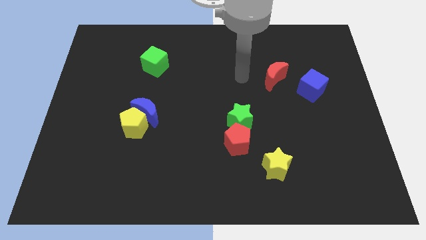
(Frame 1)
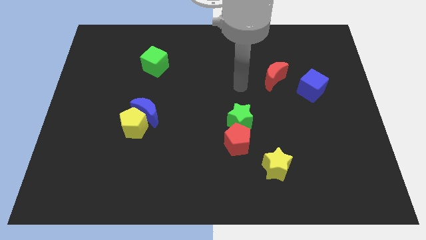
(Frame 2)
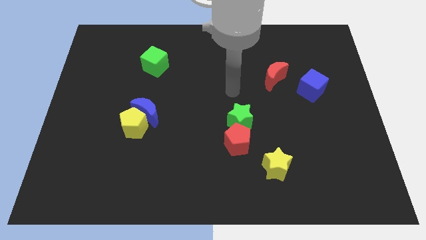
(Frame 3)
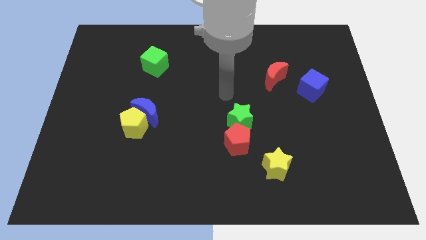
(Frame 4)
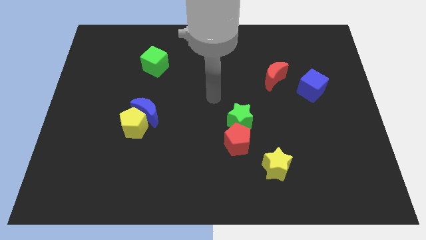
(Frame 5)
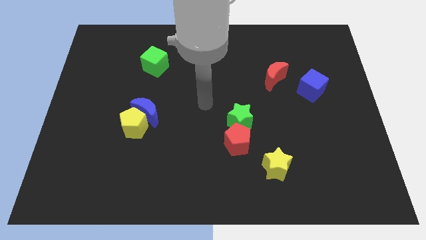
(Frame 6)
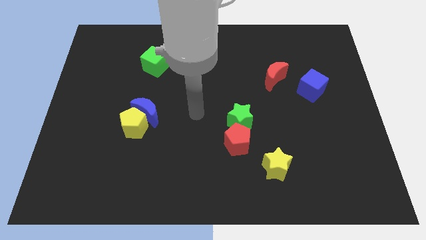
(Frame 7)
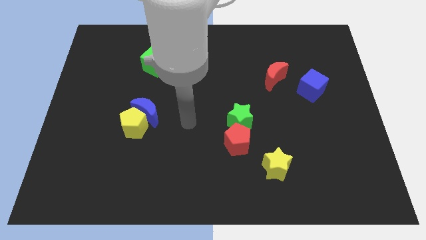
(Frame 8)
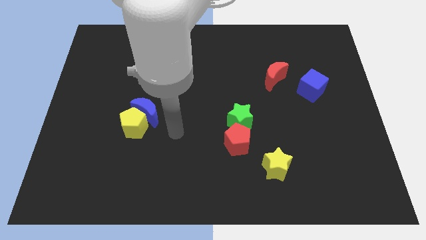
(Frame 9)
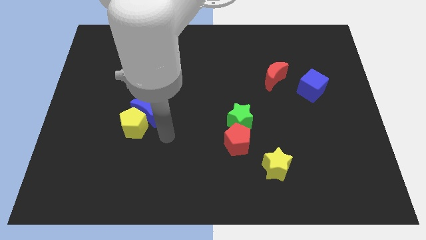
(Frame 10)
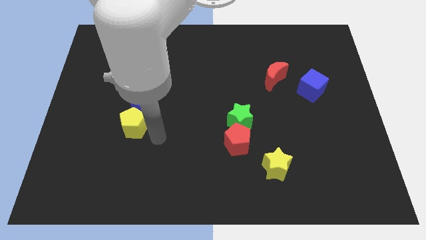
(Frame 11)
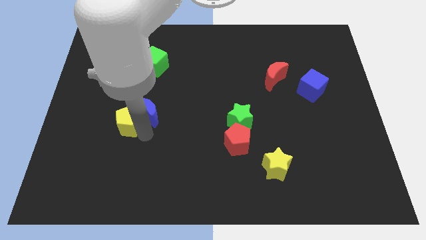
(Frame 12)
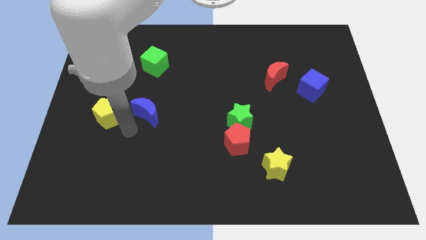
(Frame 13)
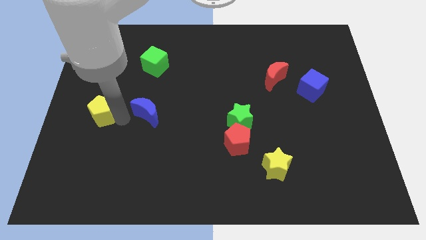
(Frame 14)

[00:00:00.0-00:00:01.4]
move the blue moon away from the yellow pentagon

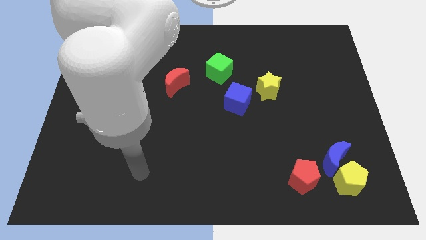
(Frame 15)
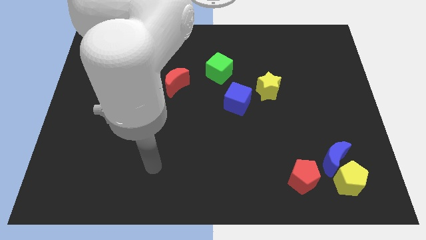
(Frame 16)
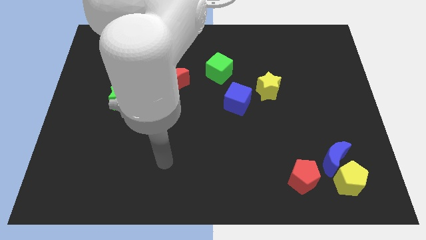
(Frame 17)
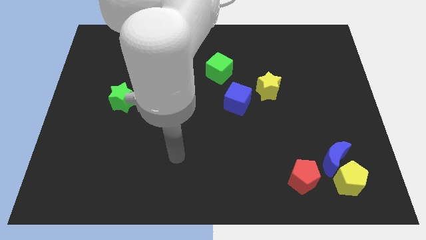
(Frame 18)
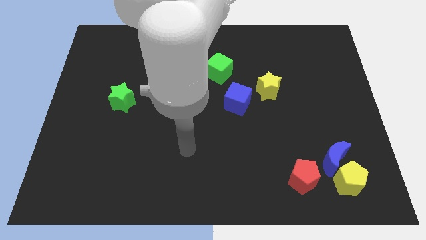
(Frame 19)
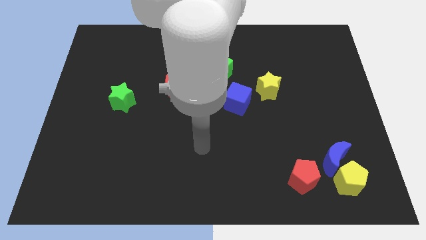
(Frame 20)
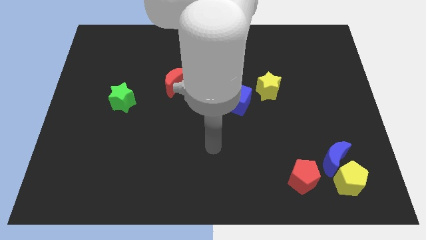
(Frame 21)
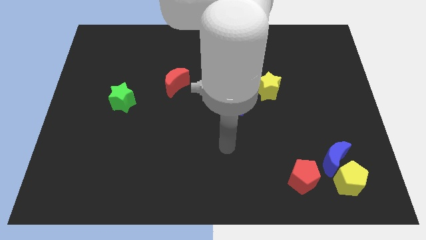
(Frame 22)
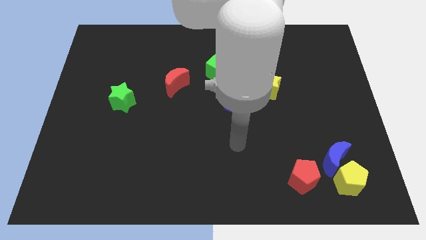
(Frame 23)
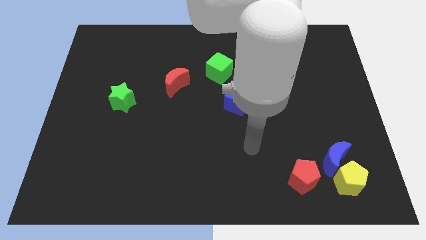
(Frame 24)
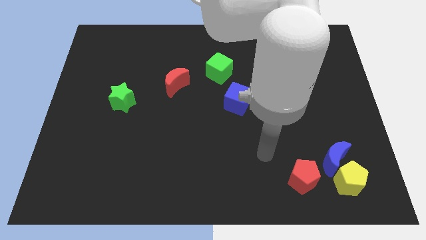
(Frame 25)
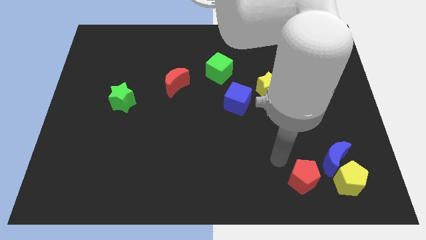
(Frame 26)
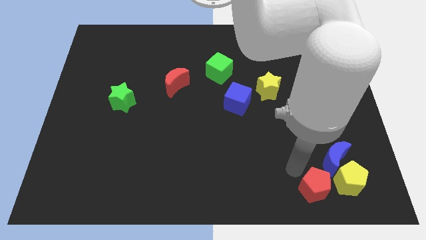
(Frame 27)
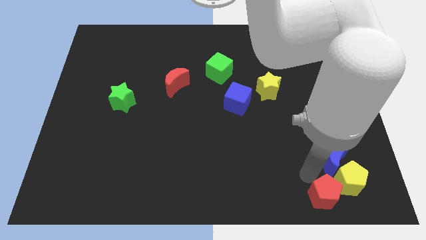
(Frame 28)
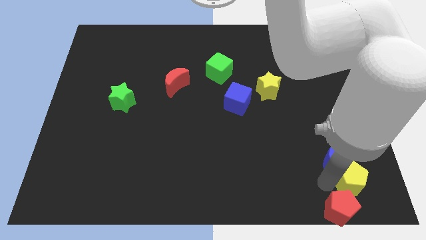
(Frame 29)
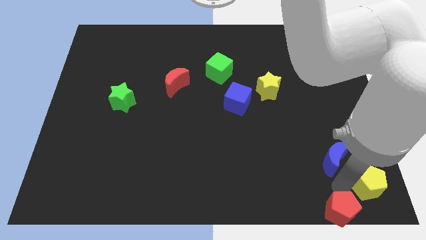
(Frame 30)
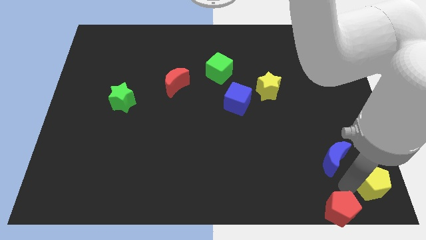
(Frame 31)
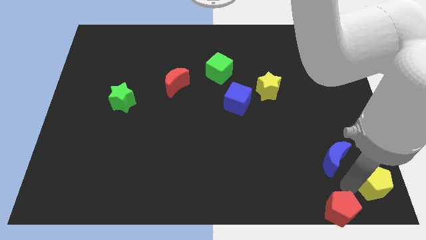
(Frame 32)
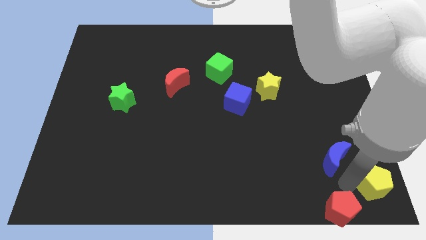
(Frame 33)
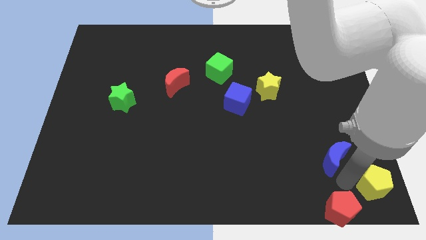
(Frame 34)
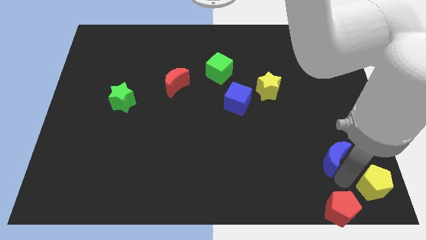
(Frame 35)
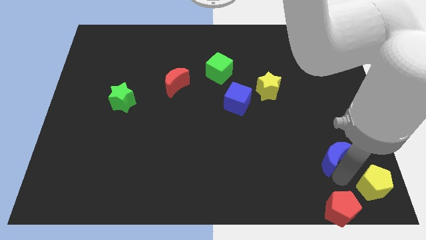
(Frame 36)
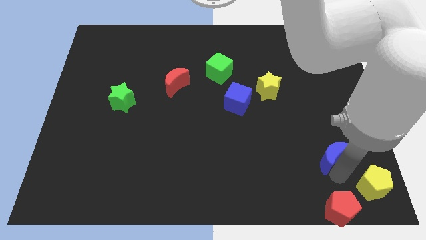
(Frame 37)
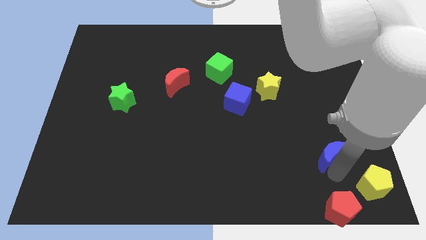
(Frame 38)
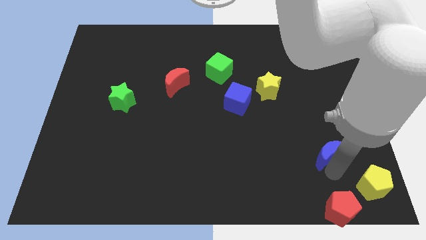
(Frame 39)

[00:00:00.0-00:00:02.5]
separate the blue moon from the yellow pentagon and red pentagon

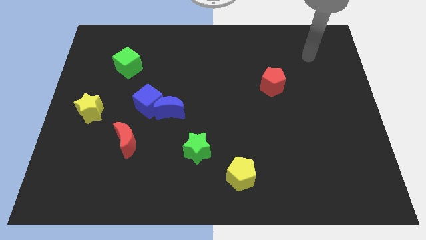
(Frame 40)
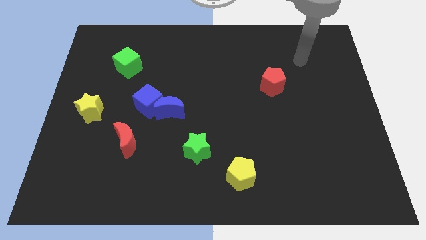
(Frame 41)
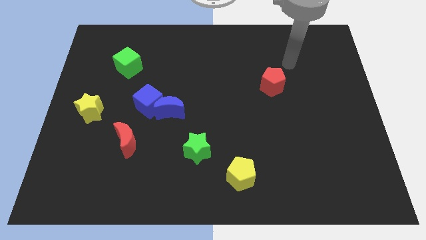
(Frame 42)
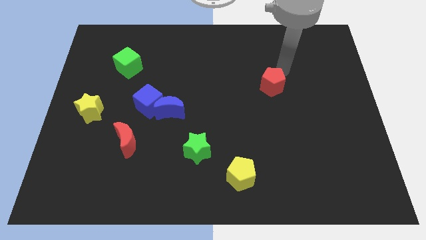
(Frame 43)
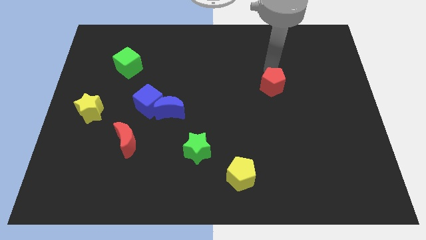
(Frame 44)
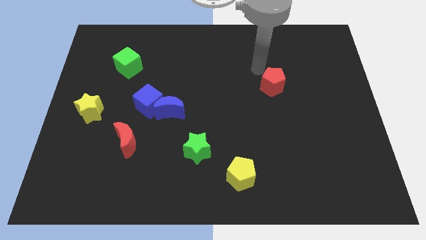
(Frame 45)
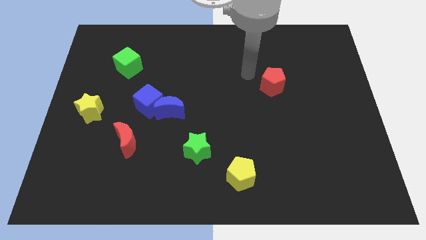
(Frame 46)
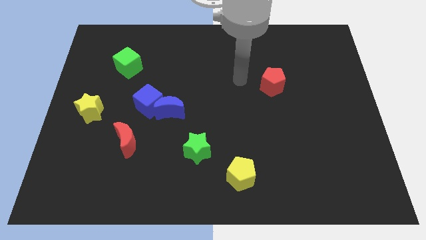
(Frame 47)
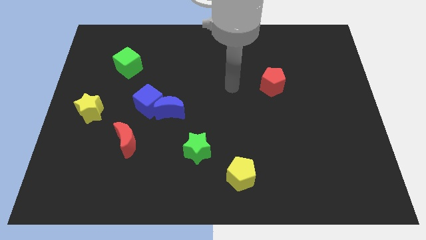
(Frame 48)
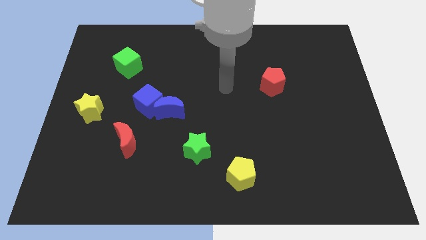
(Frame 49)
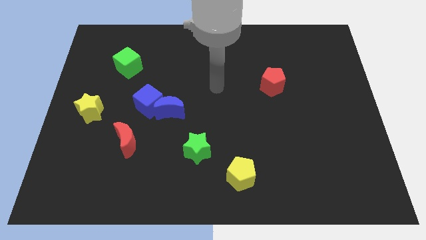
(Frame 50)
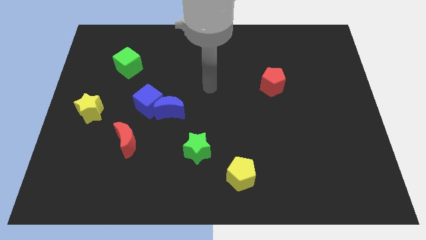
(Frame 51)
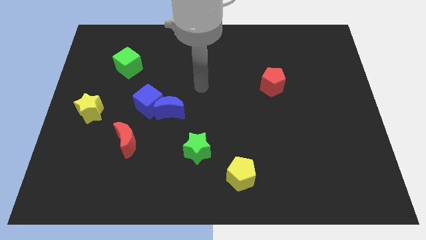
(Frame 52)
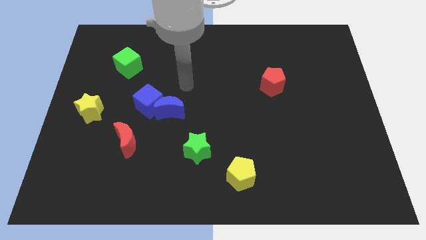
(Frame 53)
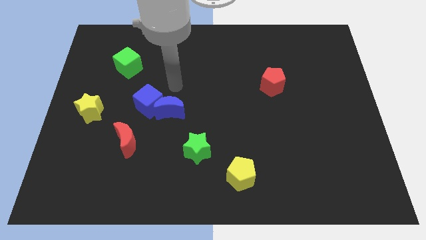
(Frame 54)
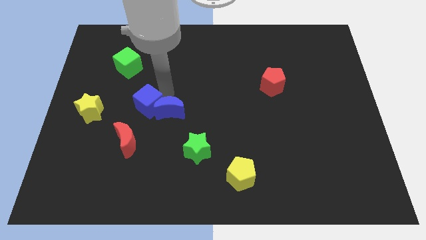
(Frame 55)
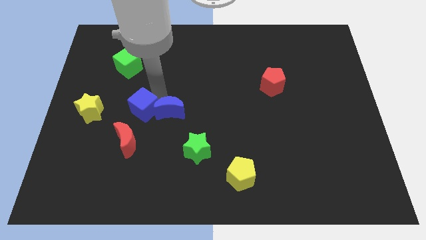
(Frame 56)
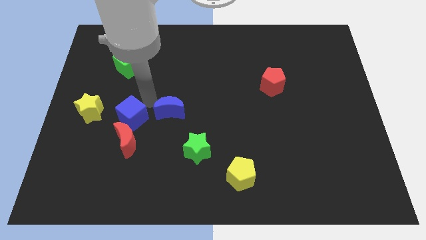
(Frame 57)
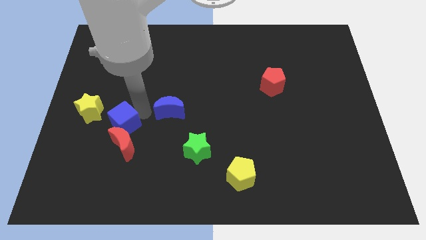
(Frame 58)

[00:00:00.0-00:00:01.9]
separate the blue moon from the blue cube

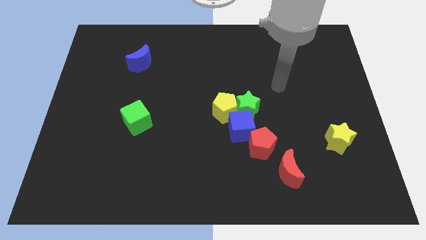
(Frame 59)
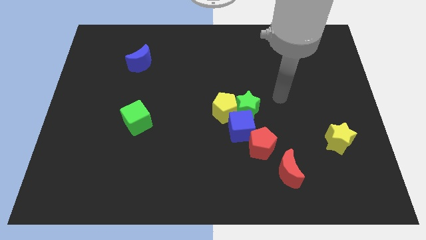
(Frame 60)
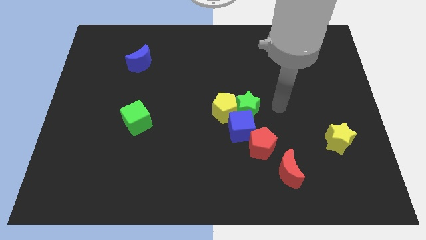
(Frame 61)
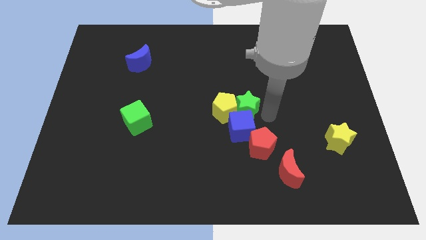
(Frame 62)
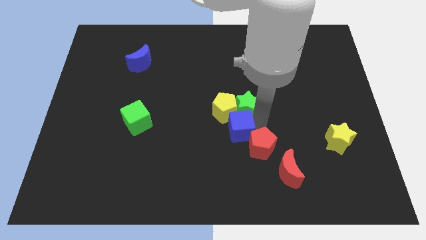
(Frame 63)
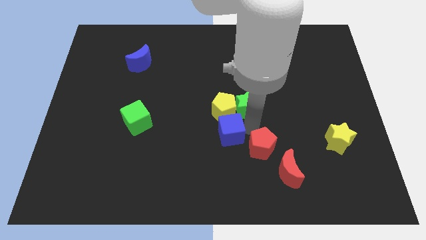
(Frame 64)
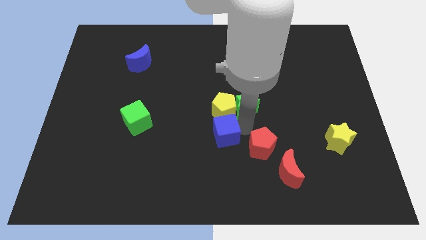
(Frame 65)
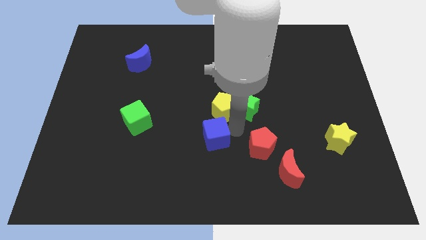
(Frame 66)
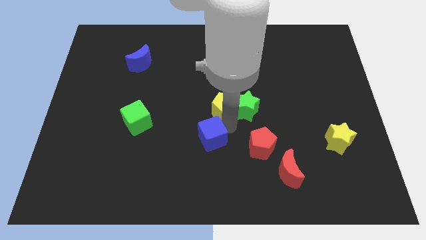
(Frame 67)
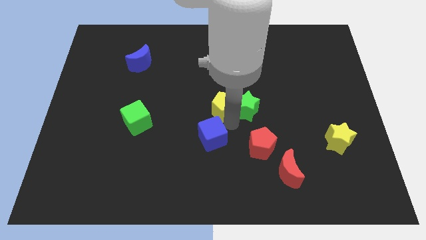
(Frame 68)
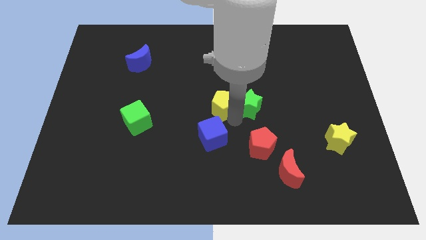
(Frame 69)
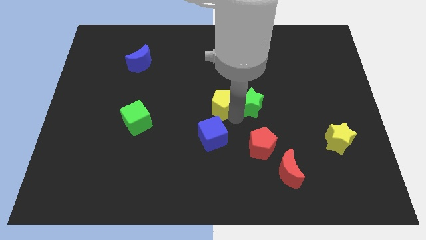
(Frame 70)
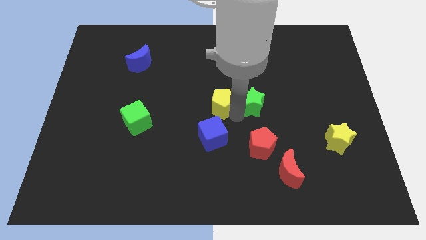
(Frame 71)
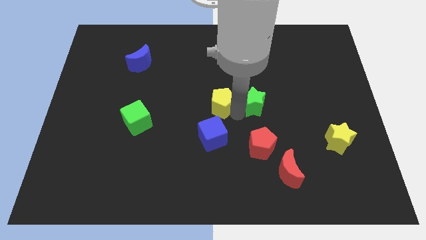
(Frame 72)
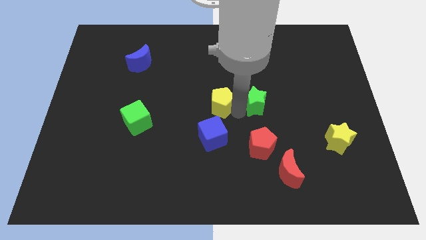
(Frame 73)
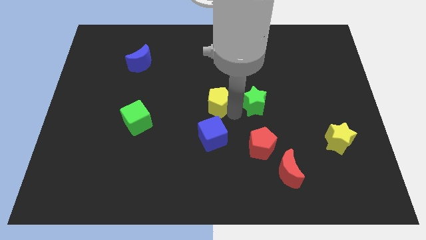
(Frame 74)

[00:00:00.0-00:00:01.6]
separate the green star from the yellow pentagon and blue cube

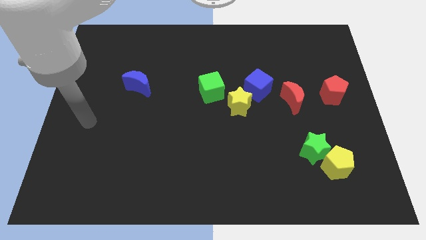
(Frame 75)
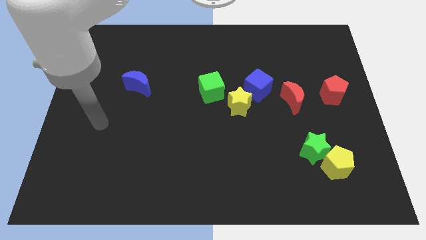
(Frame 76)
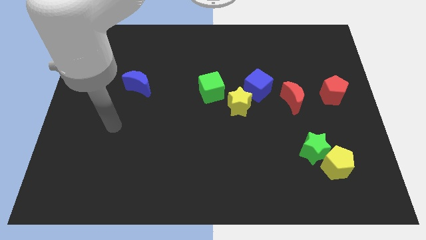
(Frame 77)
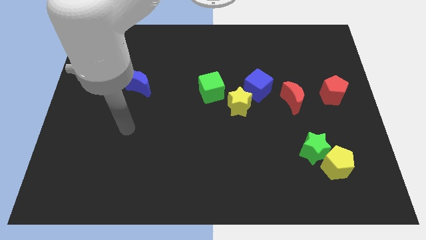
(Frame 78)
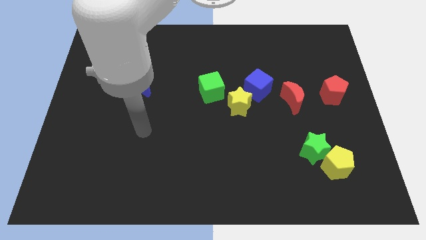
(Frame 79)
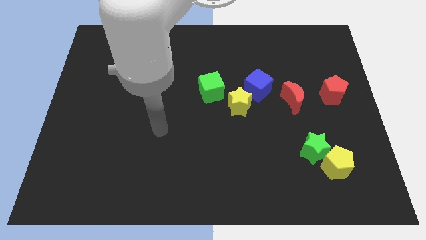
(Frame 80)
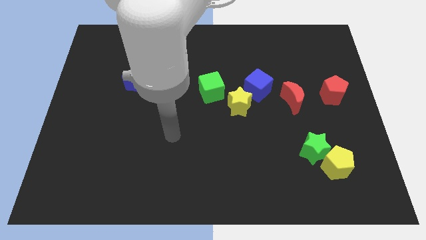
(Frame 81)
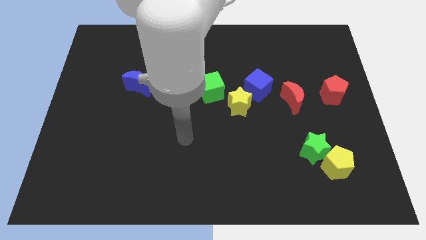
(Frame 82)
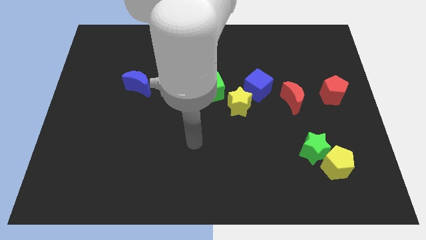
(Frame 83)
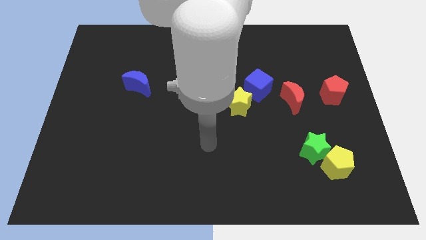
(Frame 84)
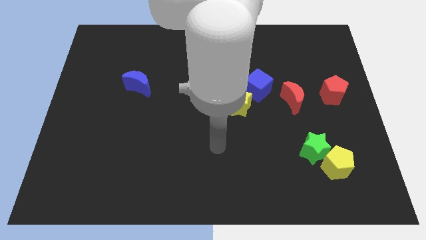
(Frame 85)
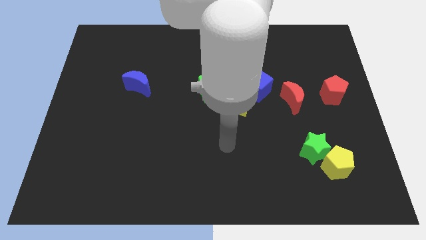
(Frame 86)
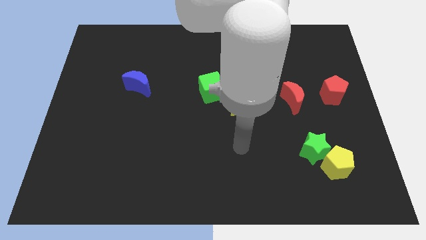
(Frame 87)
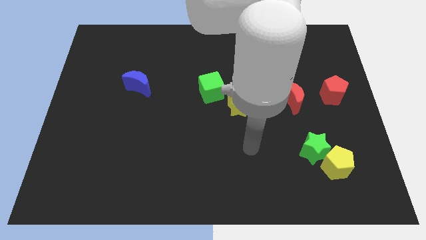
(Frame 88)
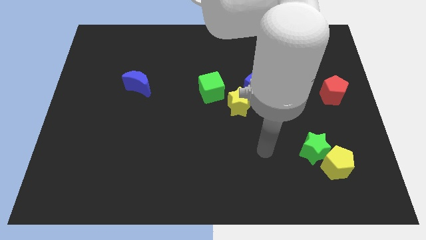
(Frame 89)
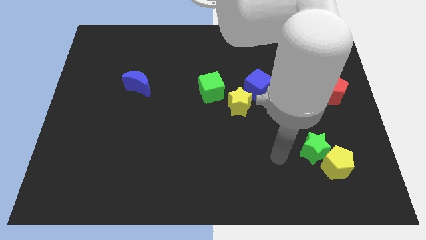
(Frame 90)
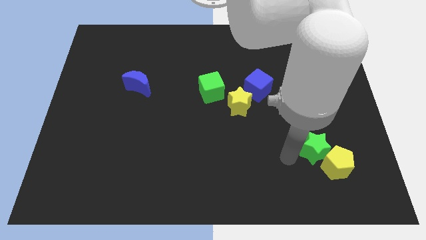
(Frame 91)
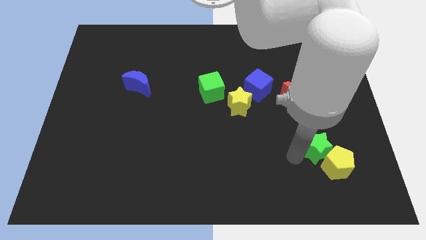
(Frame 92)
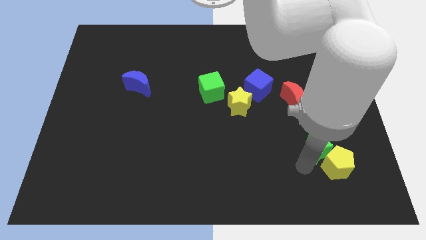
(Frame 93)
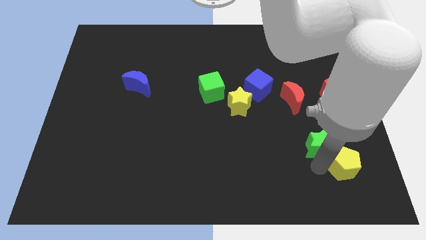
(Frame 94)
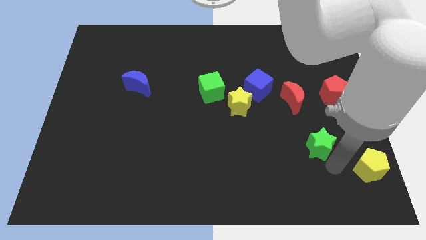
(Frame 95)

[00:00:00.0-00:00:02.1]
pull the green star apart from the yellow pentagon
